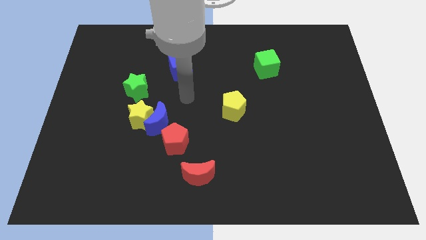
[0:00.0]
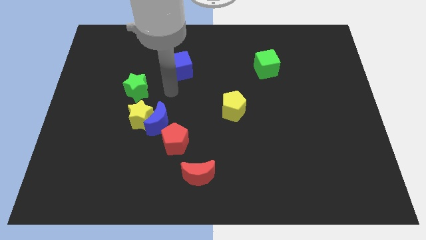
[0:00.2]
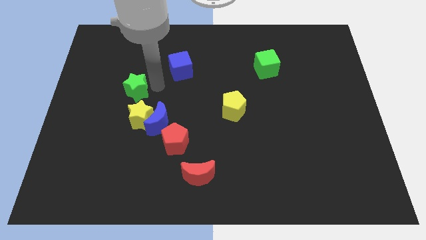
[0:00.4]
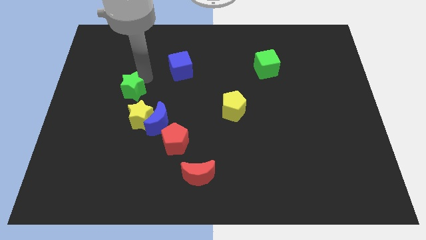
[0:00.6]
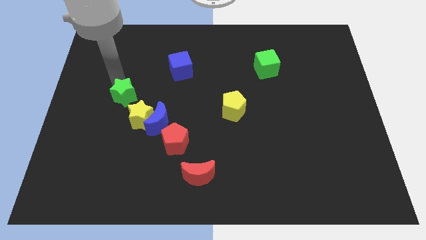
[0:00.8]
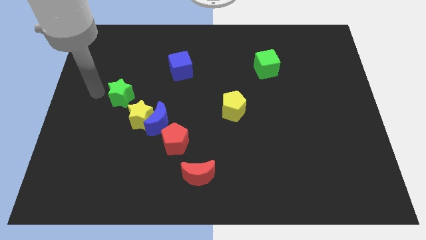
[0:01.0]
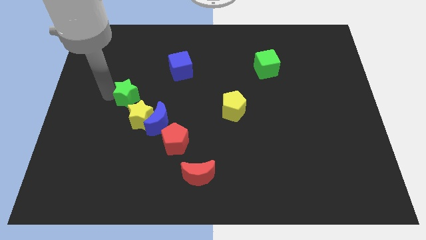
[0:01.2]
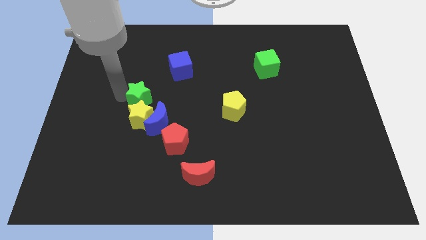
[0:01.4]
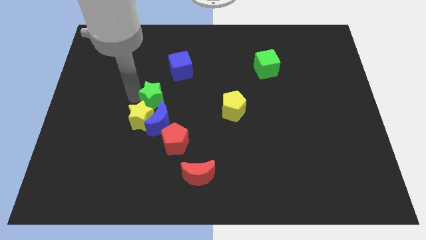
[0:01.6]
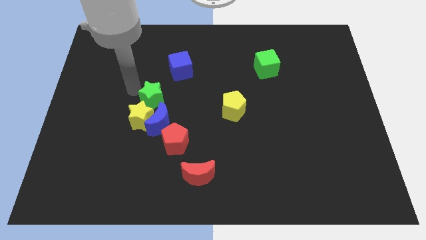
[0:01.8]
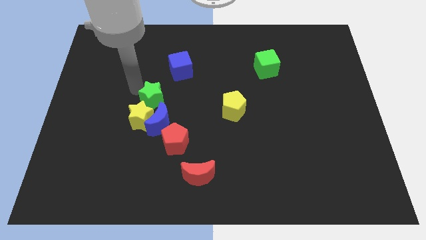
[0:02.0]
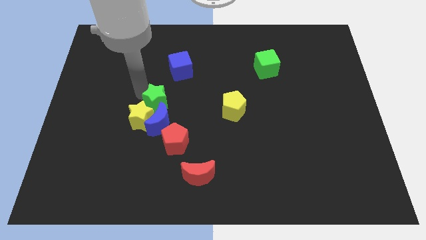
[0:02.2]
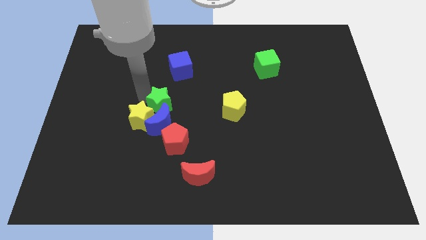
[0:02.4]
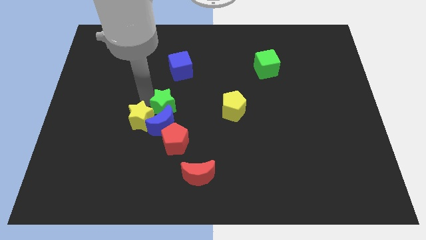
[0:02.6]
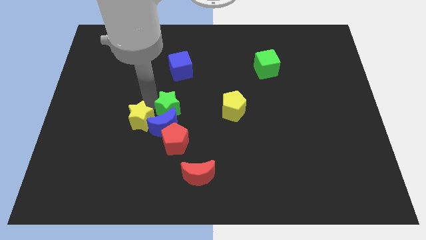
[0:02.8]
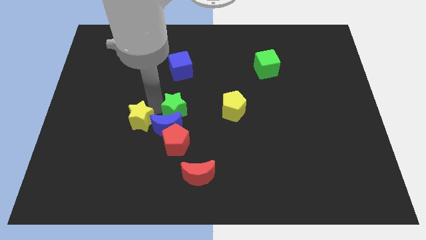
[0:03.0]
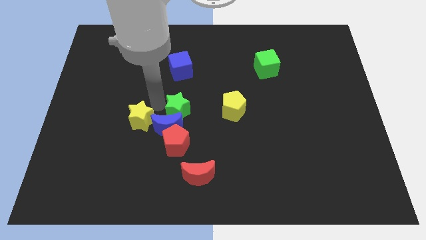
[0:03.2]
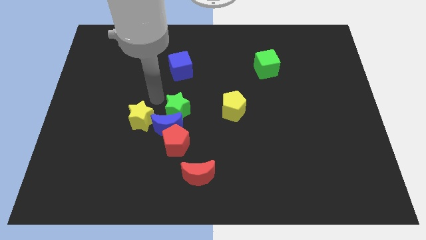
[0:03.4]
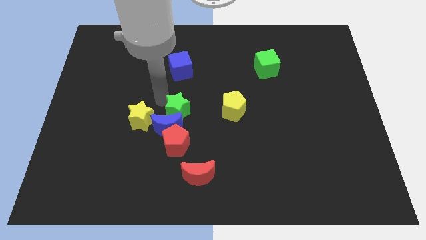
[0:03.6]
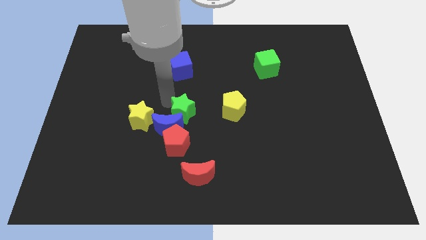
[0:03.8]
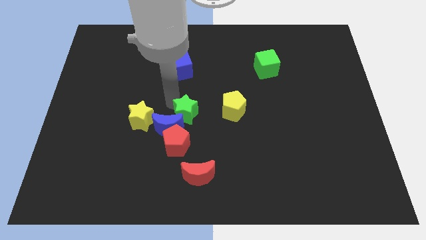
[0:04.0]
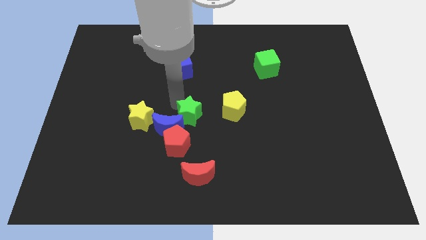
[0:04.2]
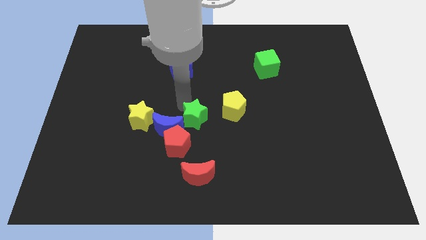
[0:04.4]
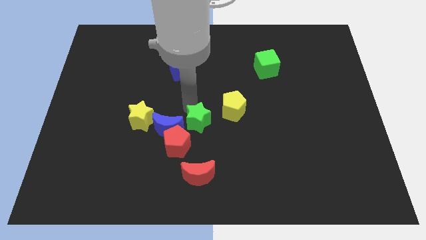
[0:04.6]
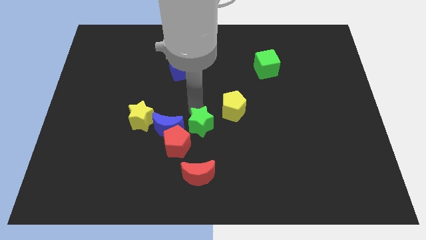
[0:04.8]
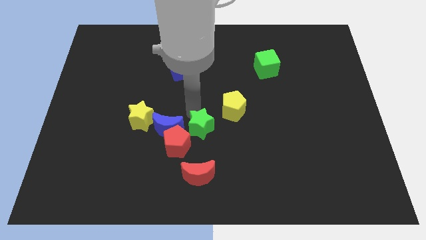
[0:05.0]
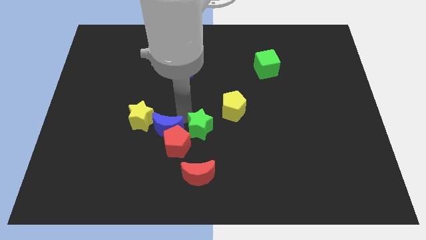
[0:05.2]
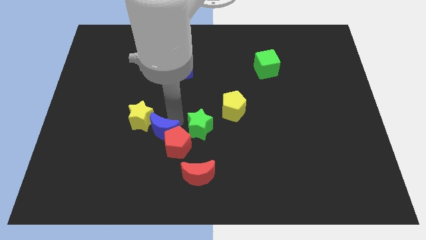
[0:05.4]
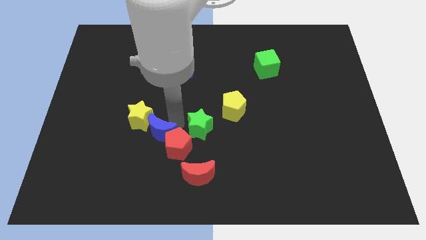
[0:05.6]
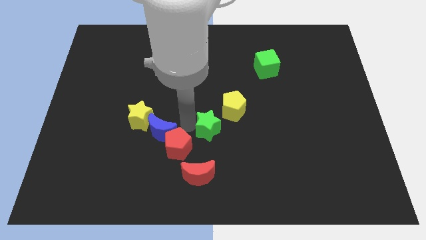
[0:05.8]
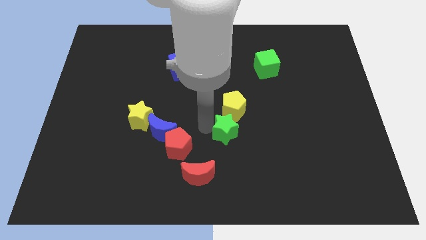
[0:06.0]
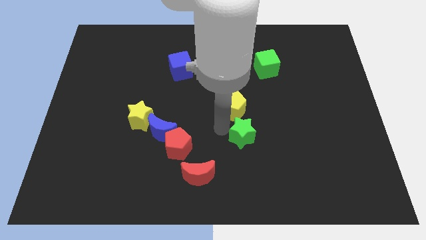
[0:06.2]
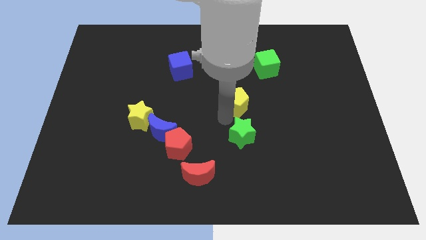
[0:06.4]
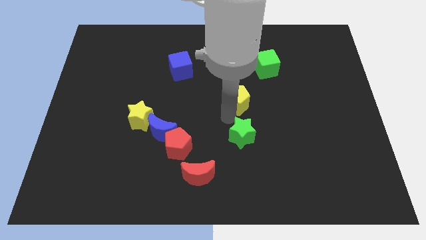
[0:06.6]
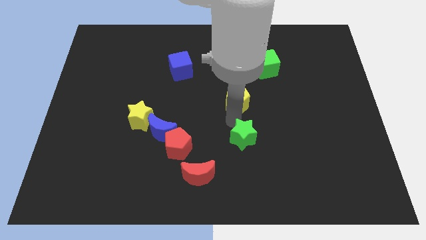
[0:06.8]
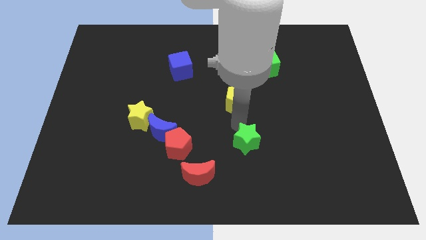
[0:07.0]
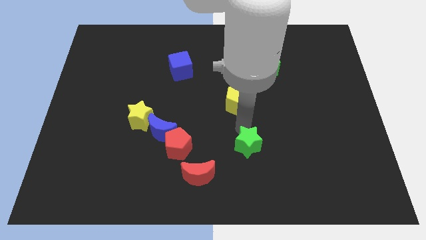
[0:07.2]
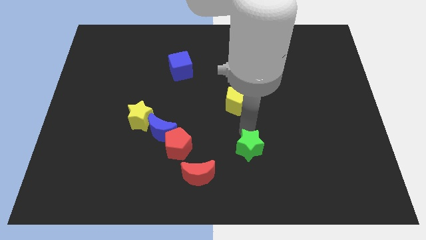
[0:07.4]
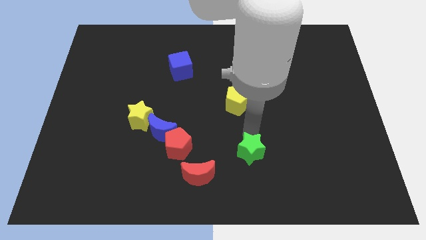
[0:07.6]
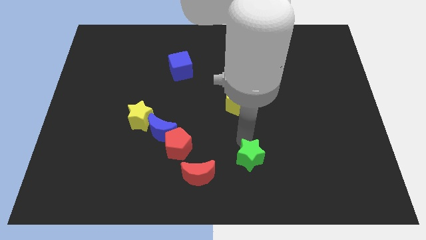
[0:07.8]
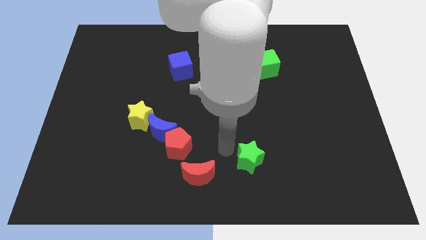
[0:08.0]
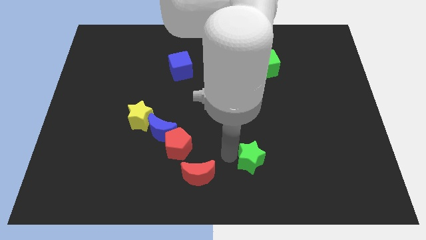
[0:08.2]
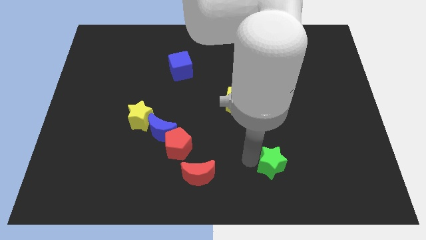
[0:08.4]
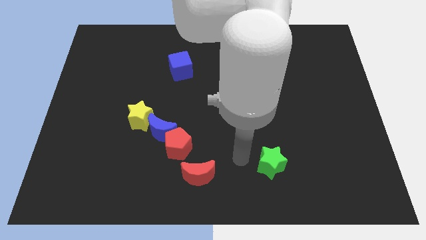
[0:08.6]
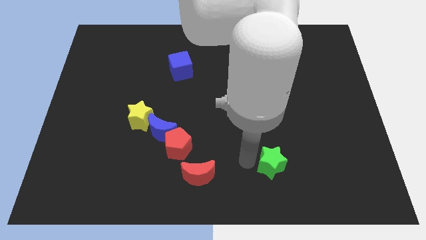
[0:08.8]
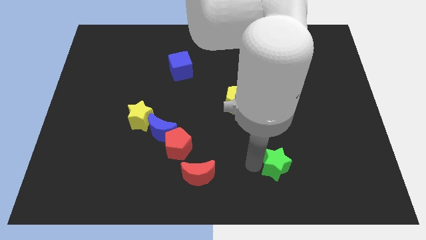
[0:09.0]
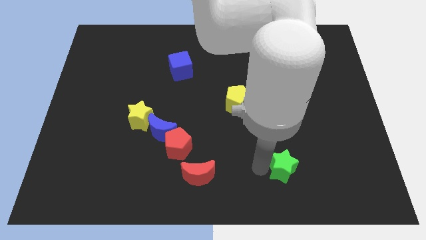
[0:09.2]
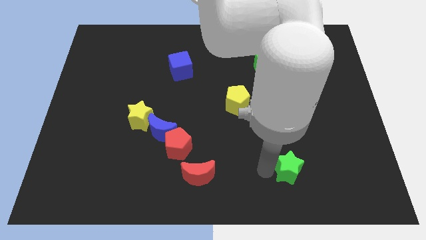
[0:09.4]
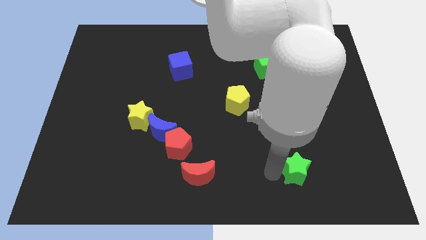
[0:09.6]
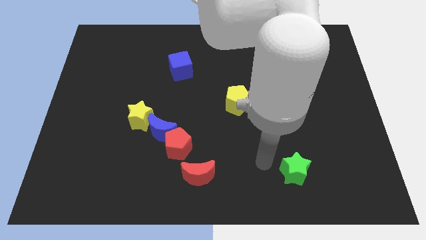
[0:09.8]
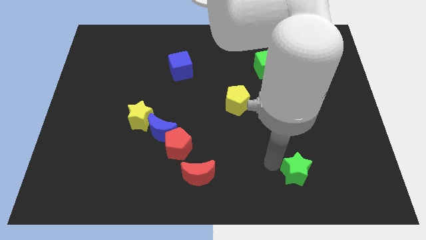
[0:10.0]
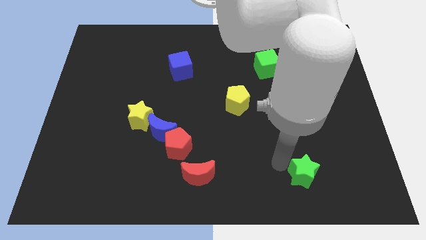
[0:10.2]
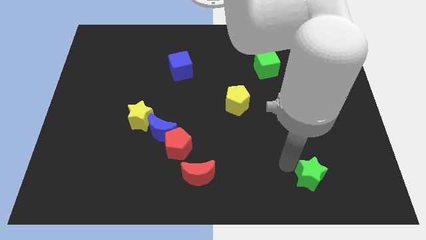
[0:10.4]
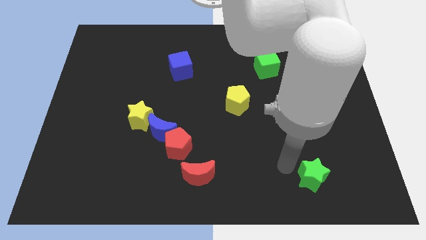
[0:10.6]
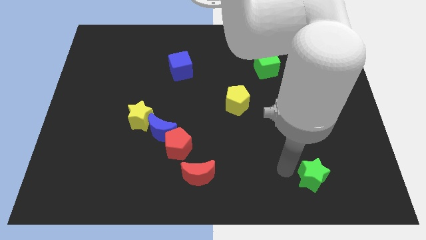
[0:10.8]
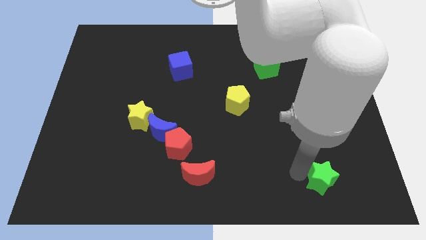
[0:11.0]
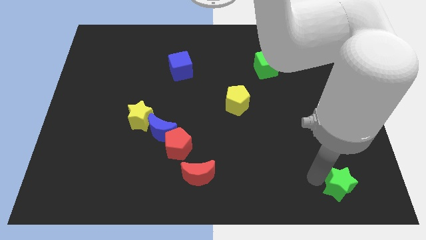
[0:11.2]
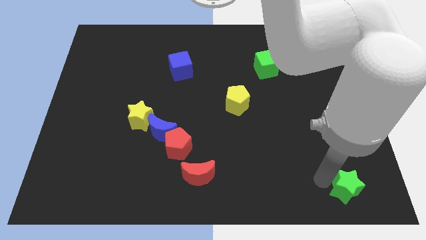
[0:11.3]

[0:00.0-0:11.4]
slide the green star to the bottom right corner
